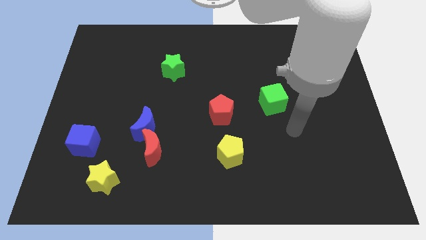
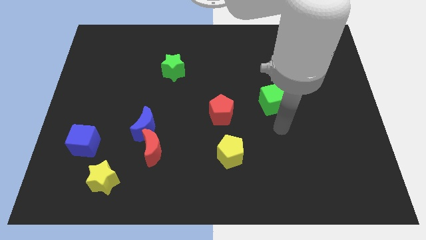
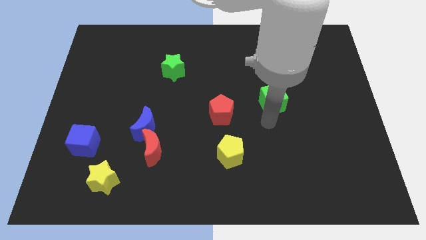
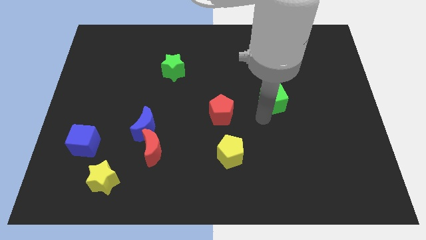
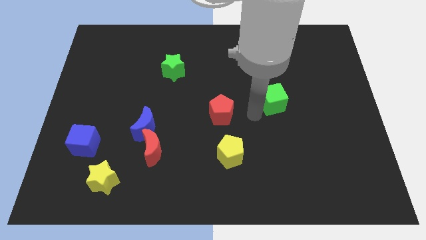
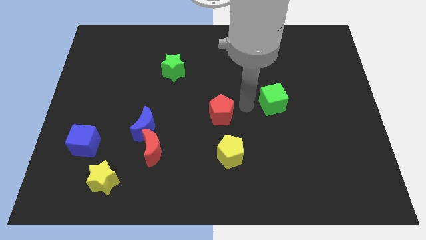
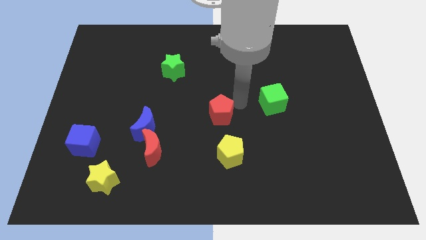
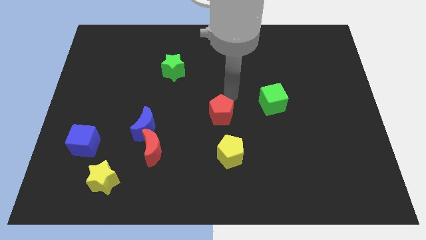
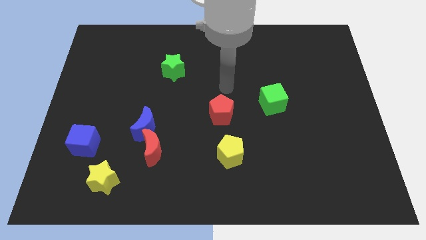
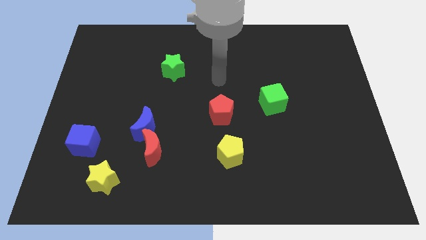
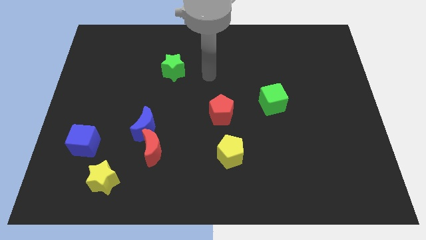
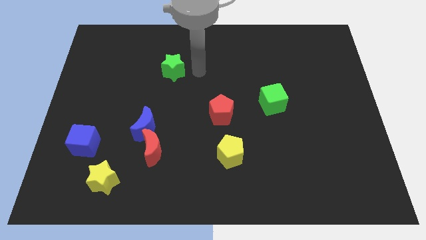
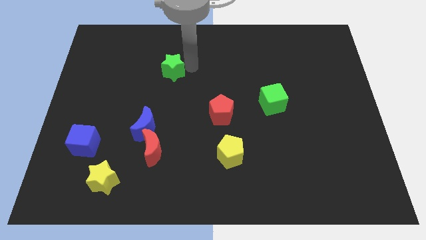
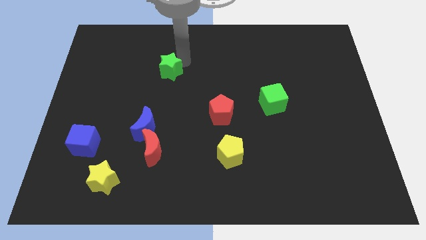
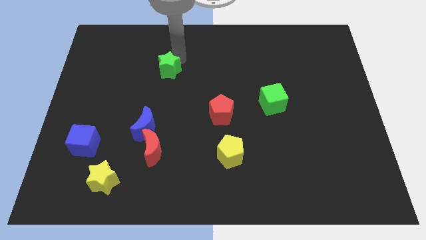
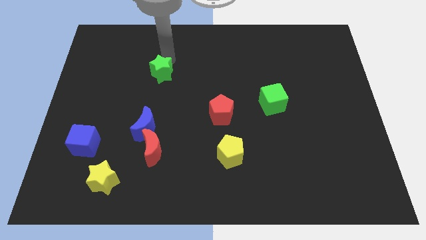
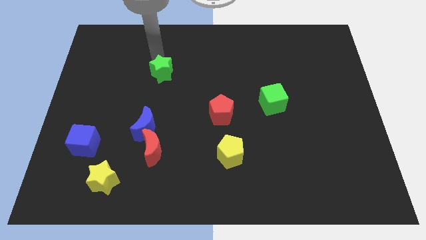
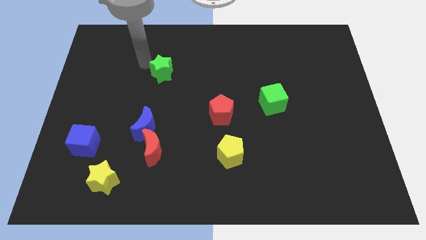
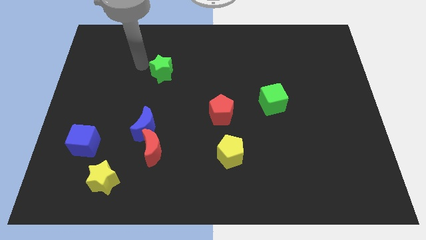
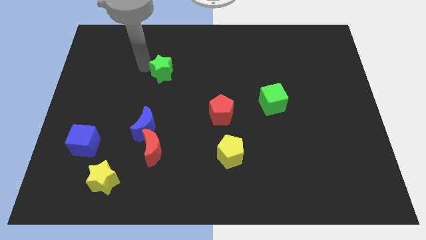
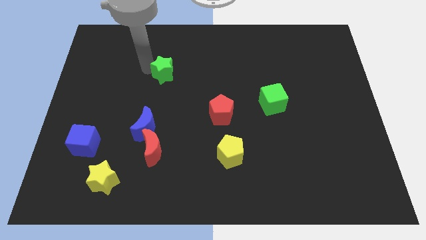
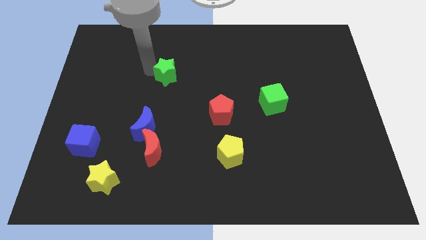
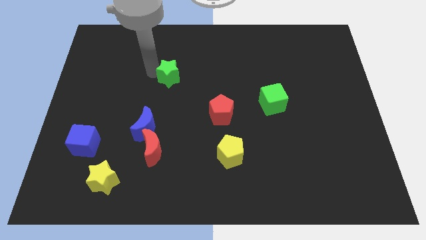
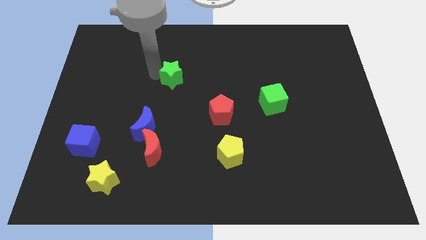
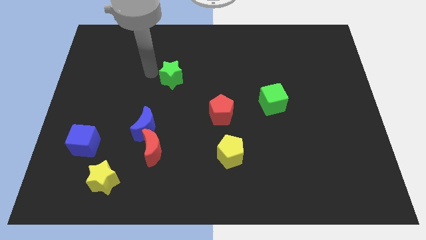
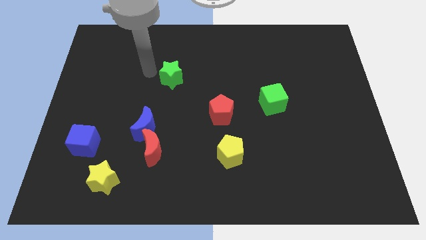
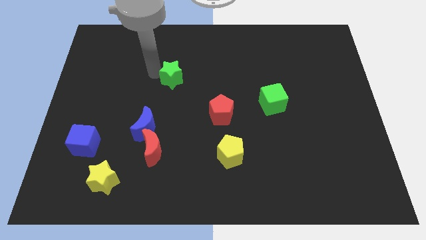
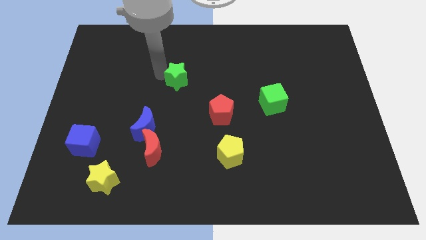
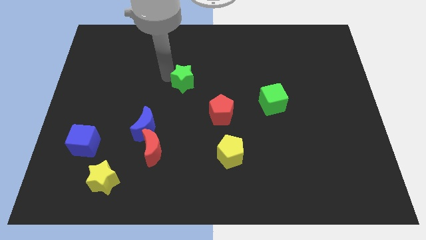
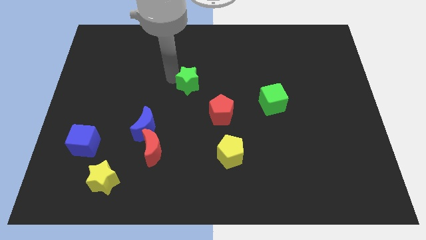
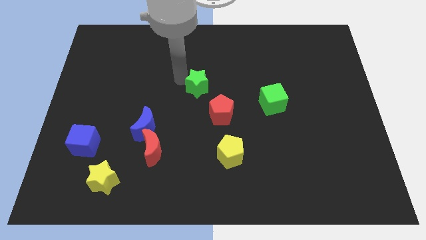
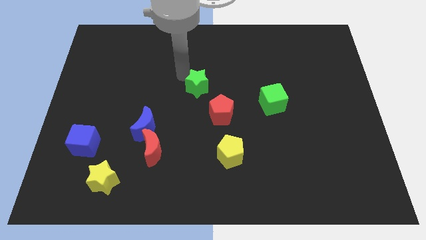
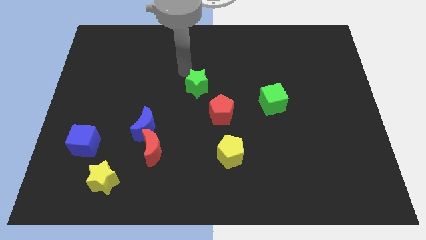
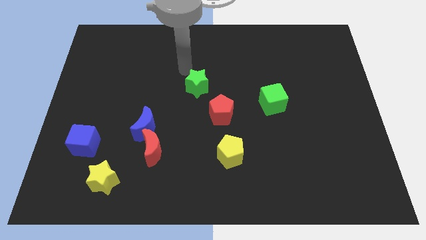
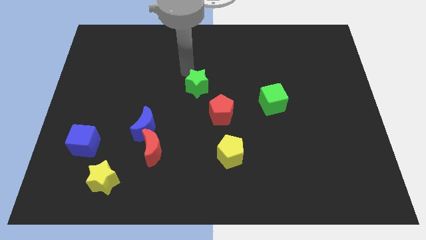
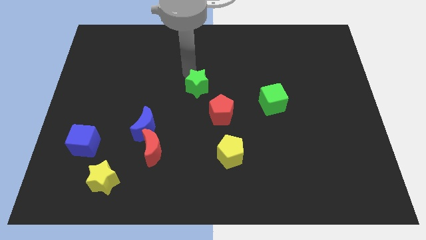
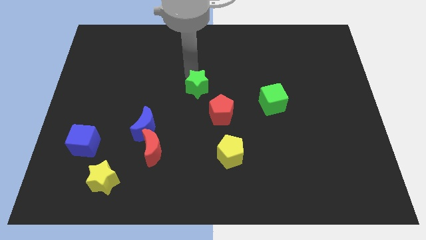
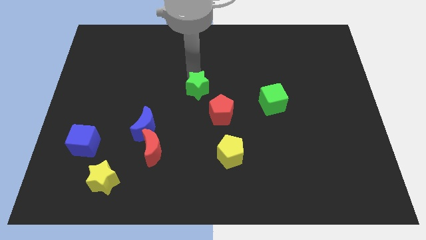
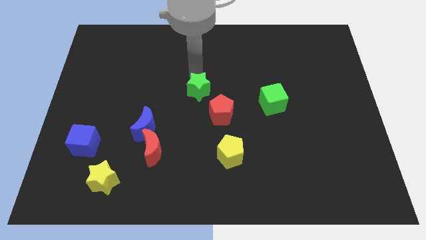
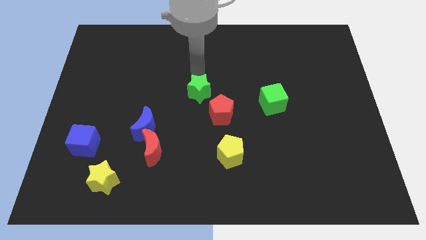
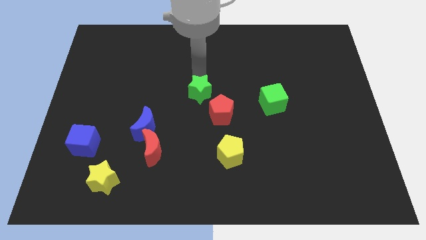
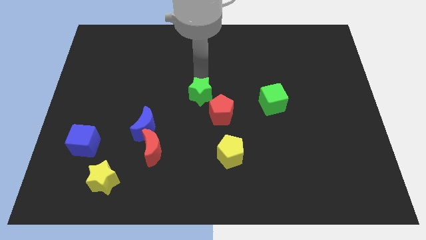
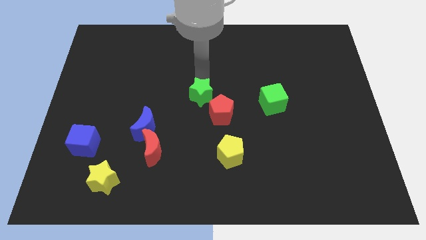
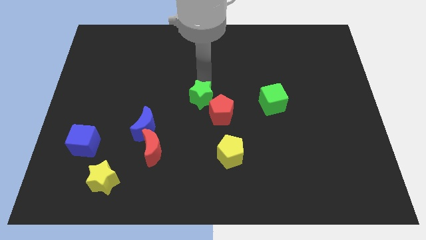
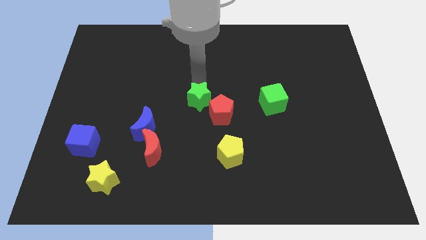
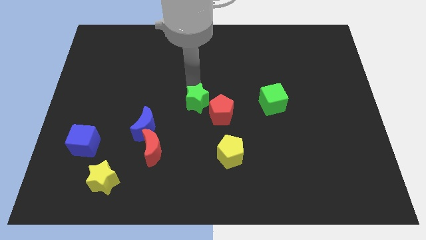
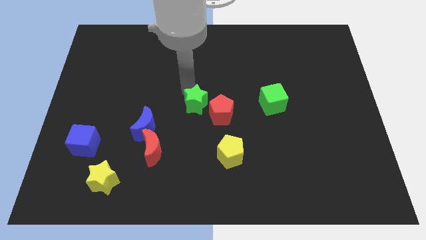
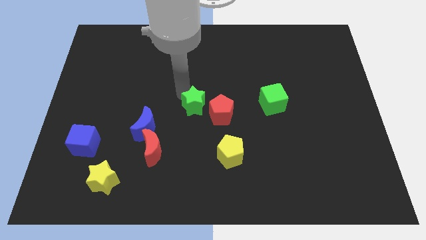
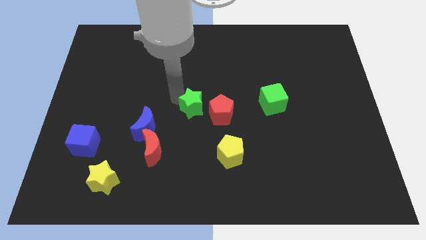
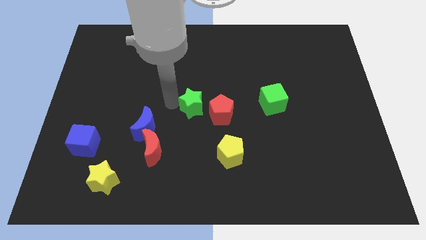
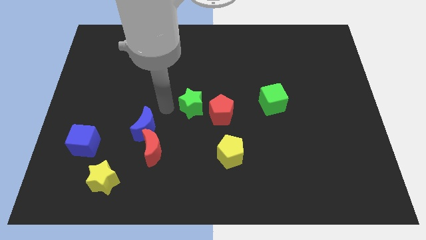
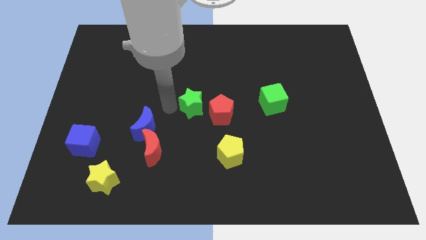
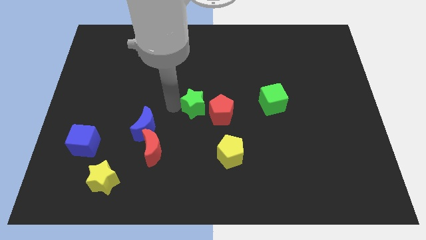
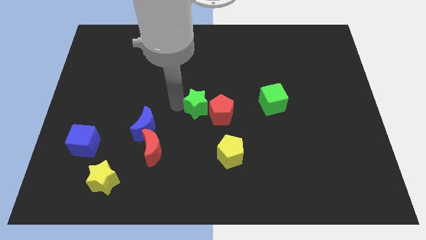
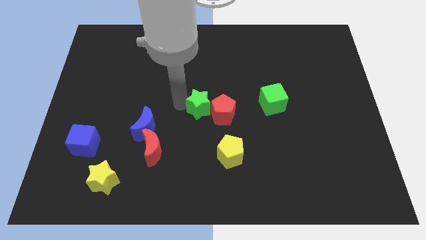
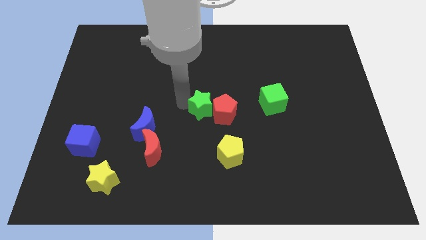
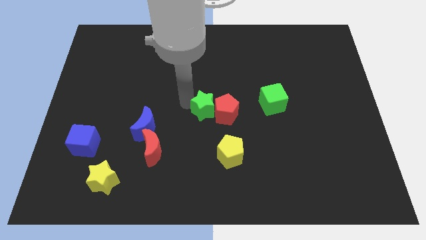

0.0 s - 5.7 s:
put the green star just left of the green cube

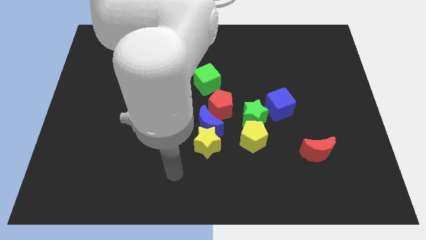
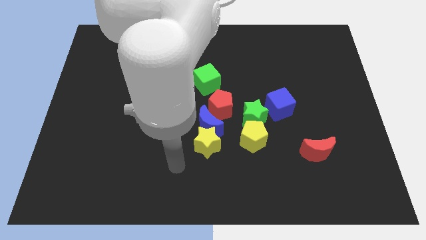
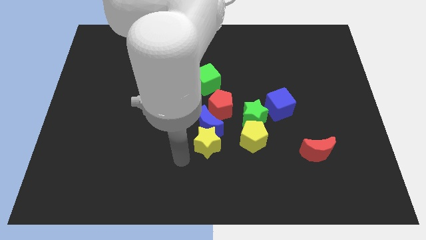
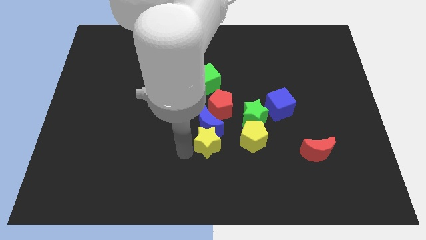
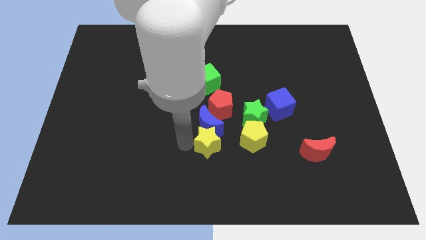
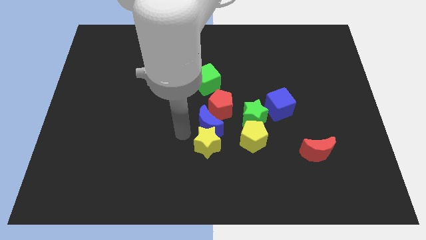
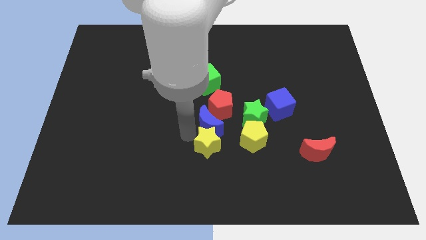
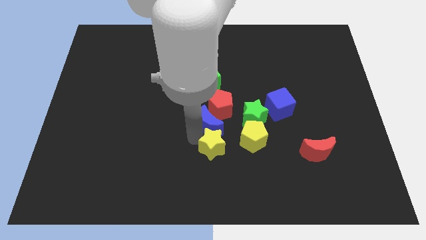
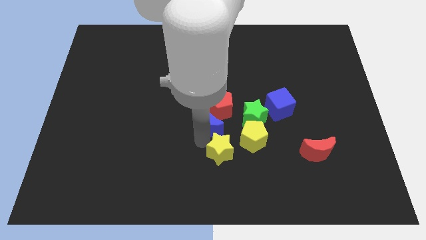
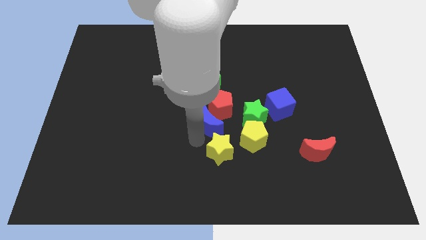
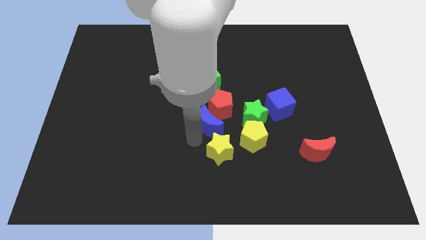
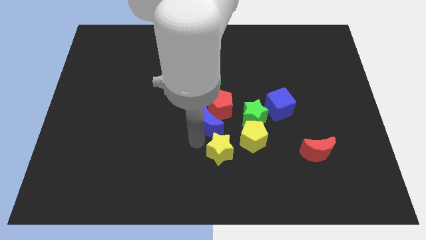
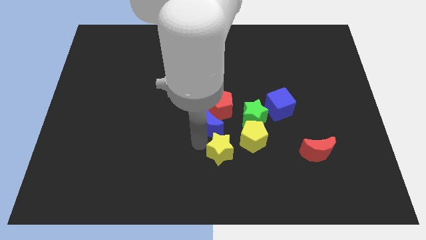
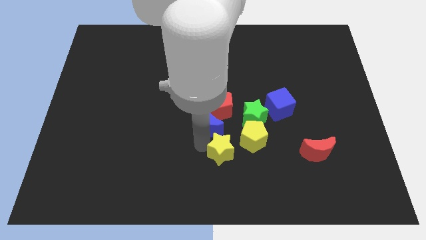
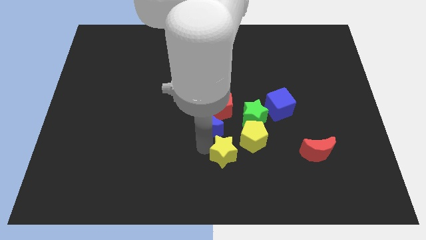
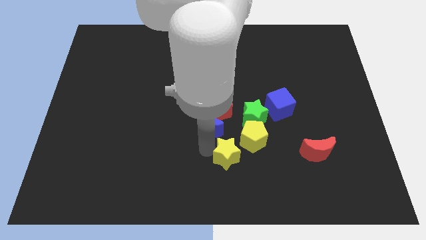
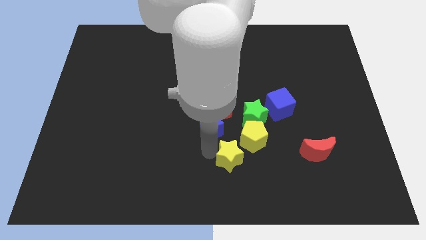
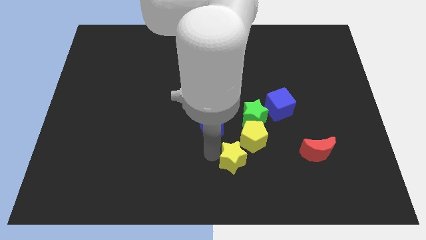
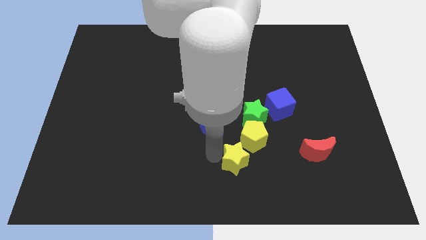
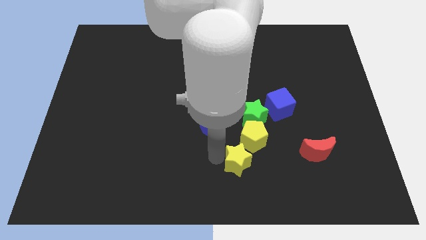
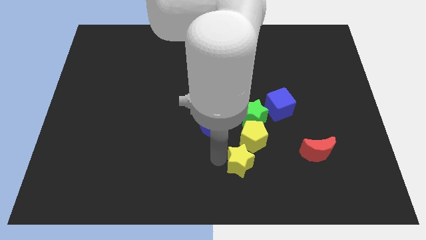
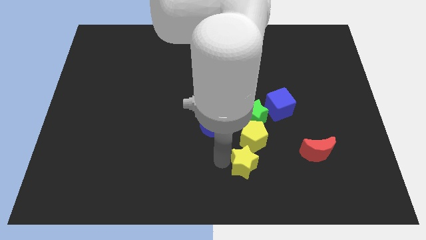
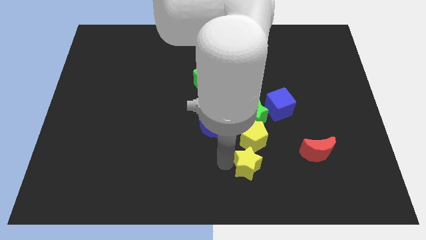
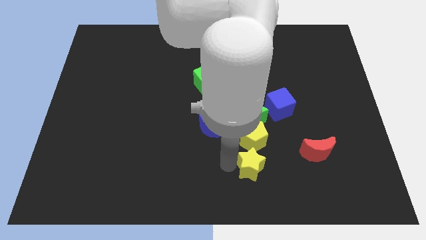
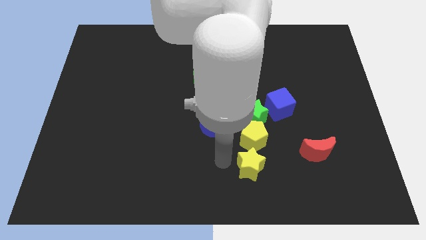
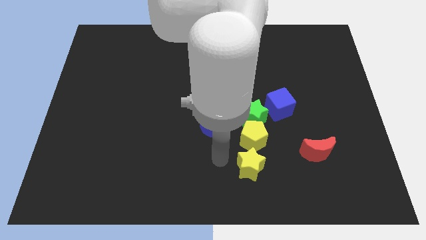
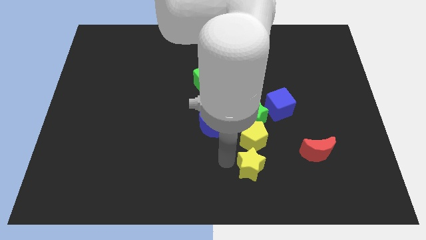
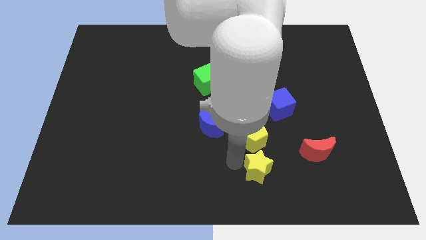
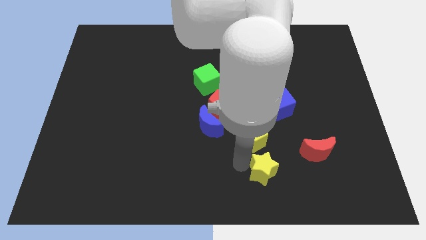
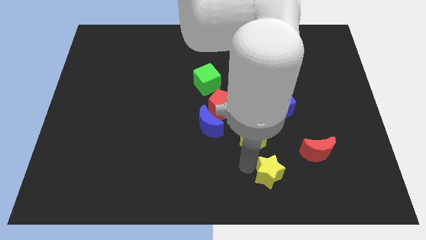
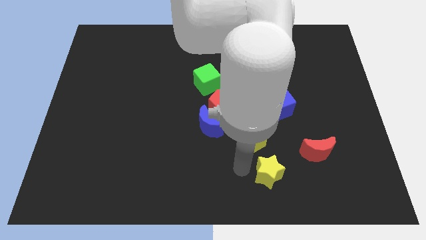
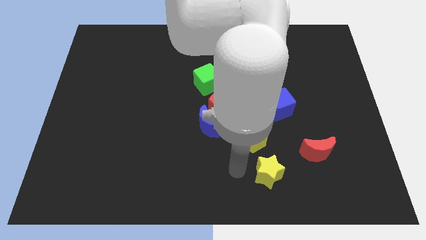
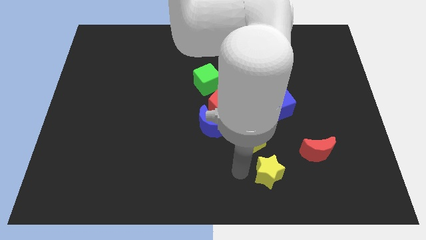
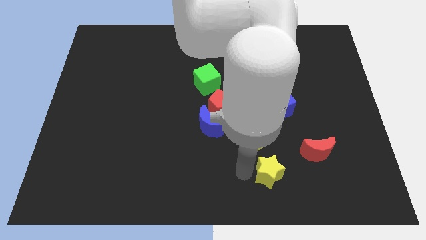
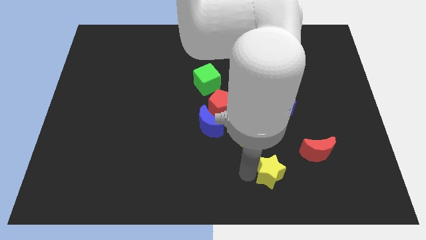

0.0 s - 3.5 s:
push the yellow star to the bottom left of the red moon
